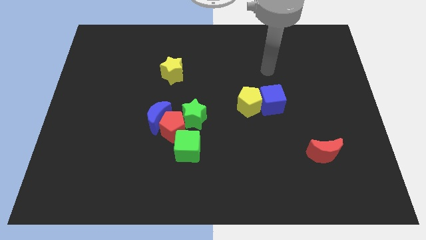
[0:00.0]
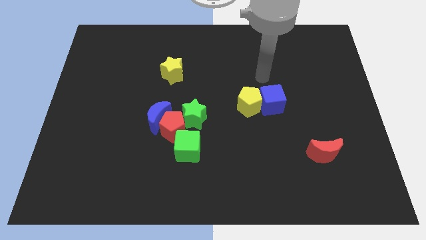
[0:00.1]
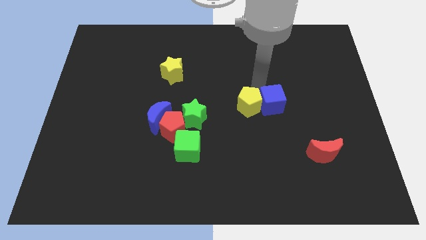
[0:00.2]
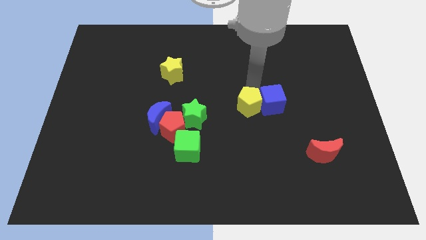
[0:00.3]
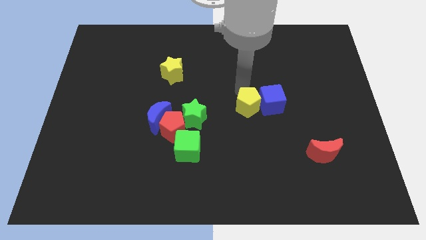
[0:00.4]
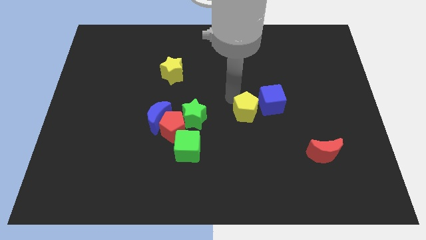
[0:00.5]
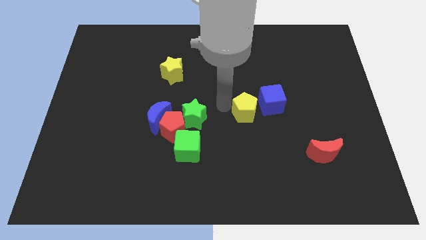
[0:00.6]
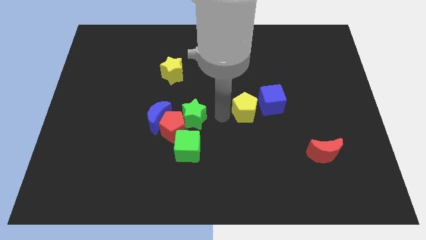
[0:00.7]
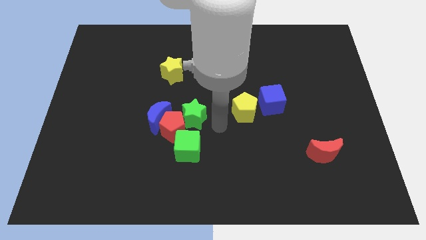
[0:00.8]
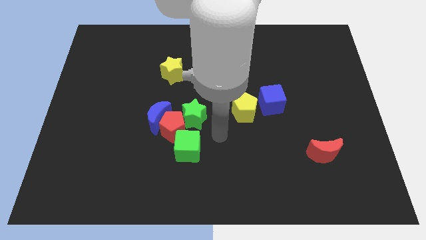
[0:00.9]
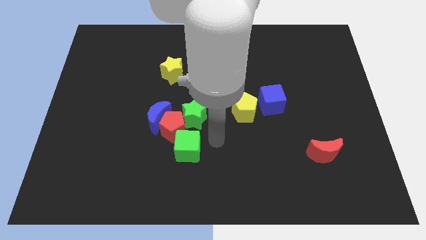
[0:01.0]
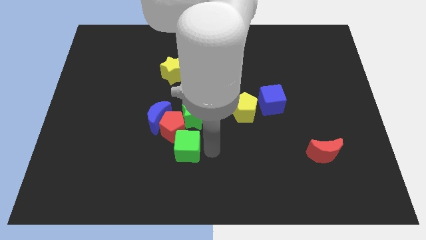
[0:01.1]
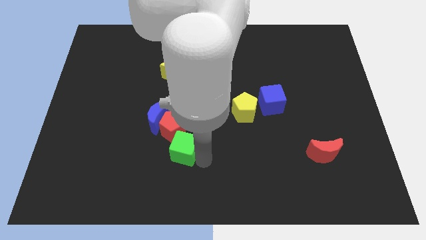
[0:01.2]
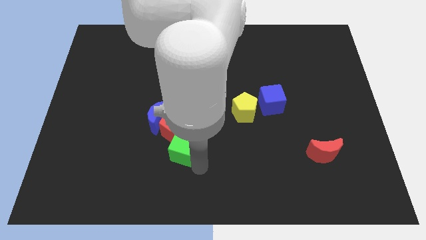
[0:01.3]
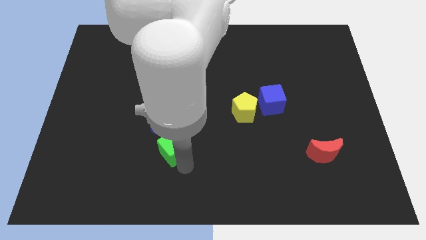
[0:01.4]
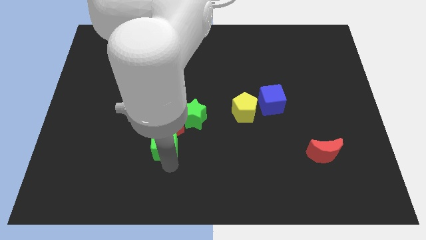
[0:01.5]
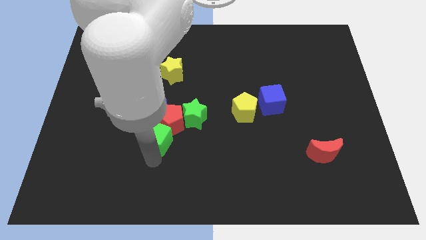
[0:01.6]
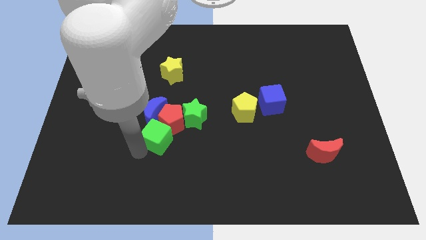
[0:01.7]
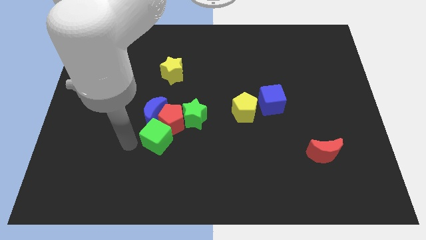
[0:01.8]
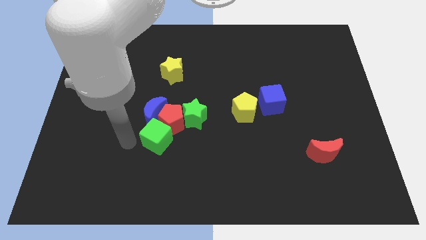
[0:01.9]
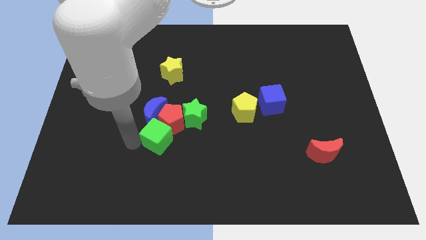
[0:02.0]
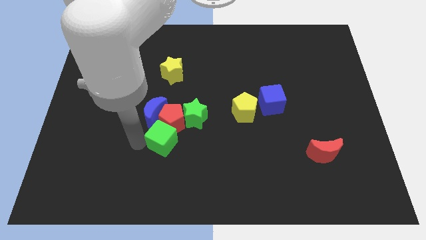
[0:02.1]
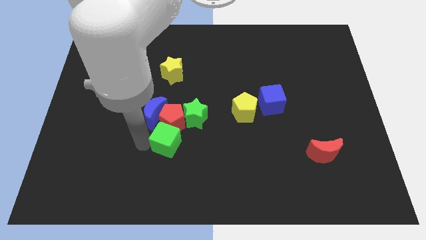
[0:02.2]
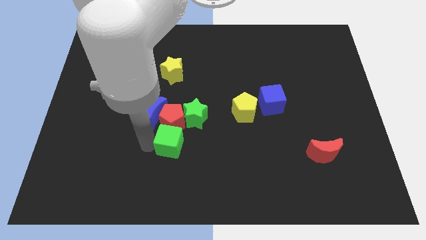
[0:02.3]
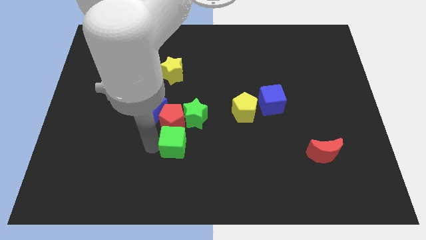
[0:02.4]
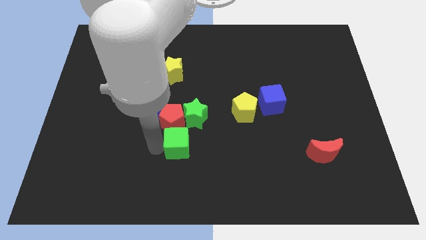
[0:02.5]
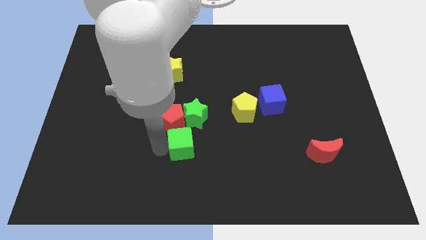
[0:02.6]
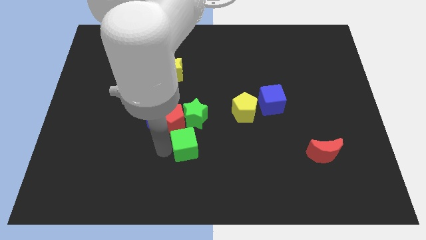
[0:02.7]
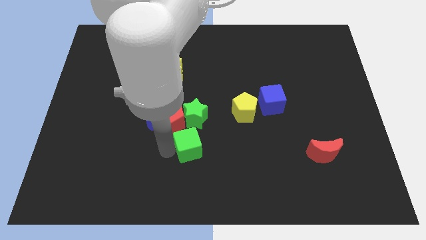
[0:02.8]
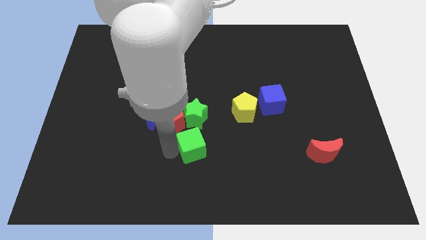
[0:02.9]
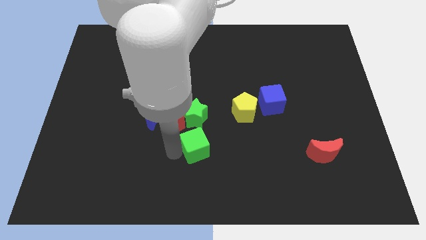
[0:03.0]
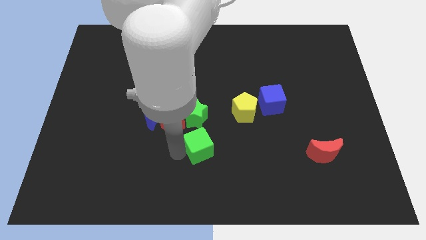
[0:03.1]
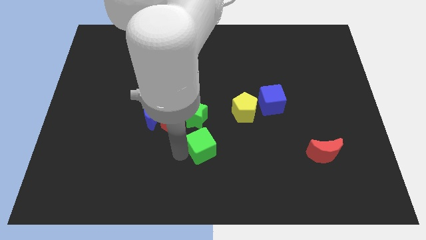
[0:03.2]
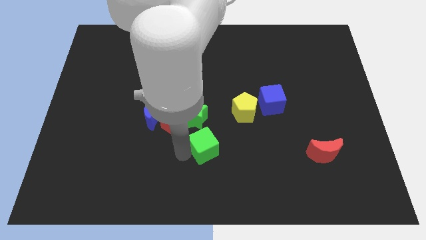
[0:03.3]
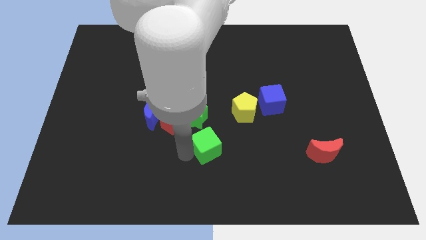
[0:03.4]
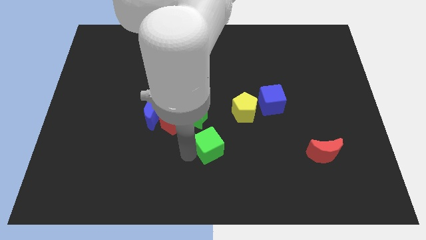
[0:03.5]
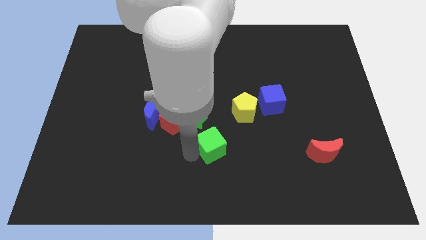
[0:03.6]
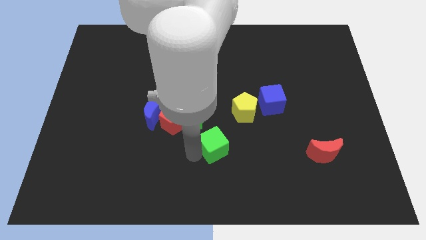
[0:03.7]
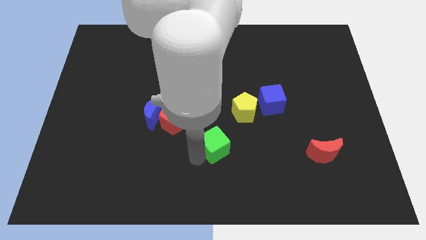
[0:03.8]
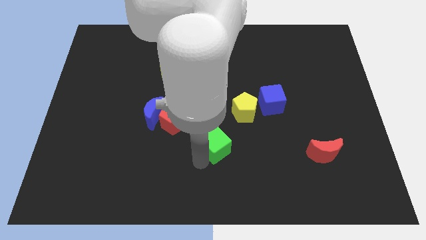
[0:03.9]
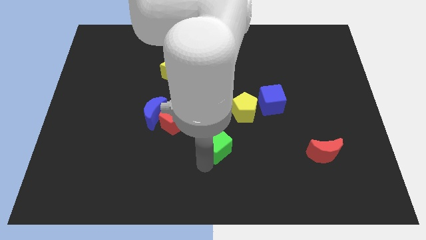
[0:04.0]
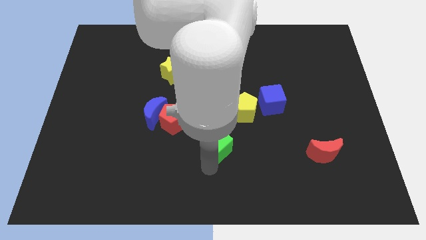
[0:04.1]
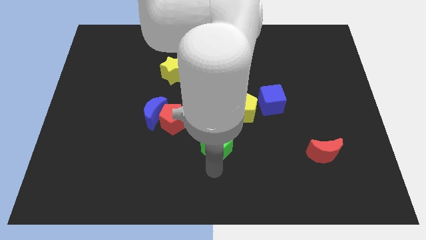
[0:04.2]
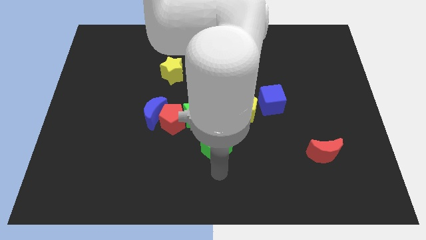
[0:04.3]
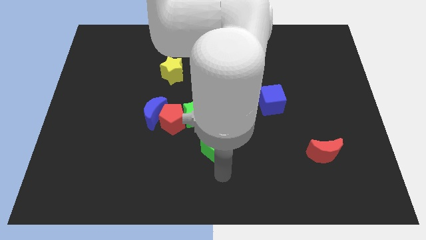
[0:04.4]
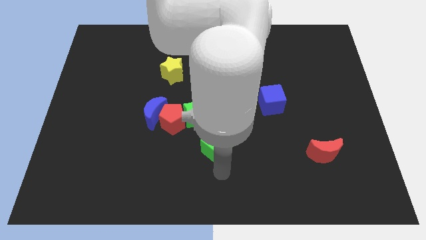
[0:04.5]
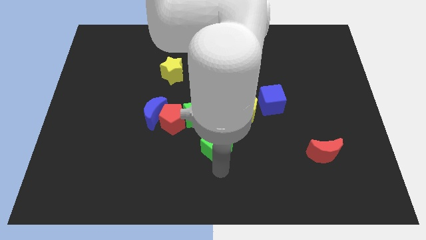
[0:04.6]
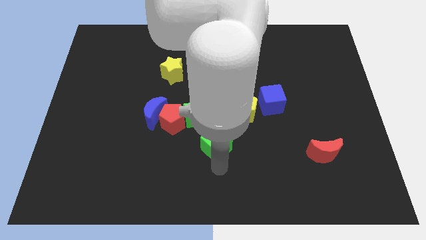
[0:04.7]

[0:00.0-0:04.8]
slide the green cube to the middle of the board

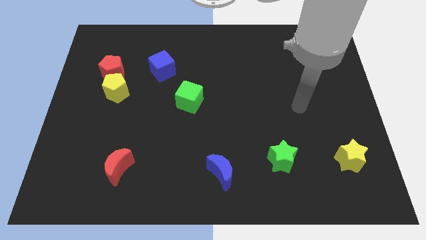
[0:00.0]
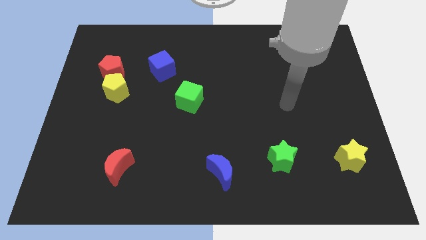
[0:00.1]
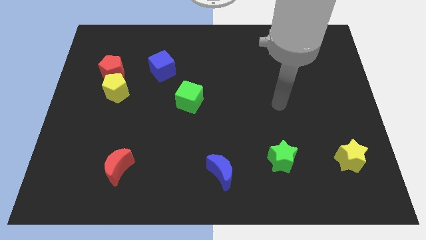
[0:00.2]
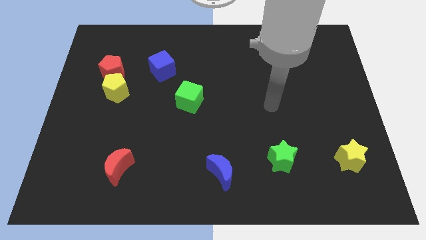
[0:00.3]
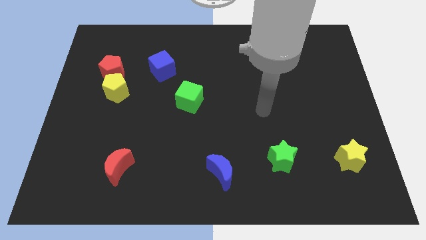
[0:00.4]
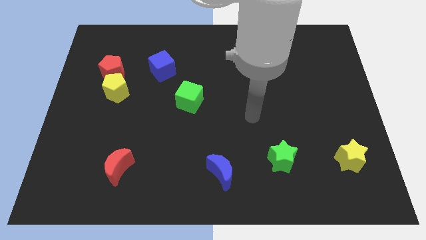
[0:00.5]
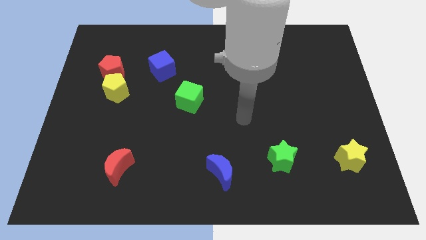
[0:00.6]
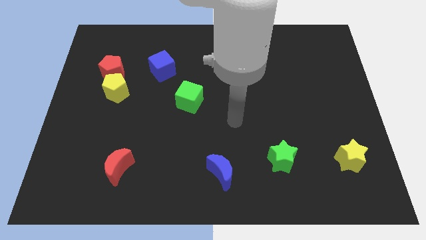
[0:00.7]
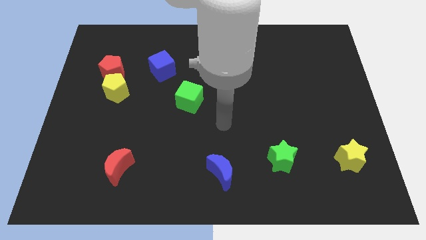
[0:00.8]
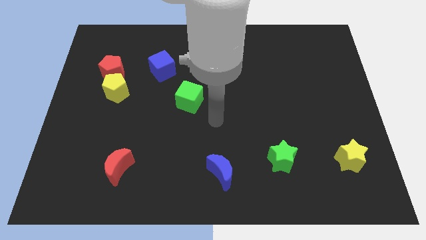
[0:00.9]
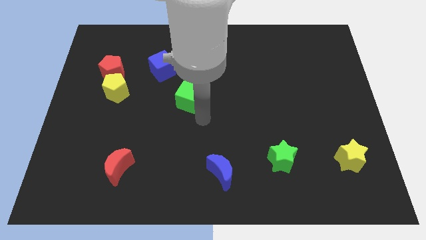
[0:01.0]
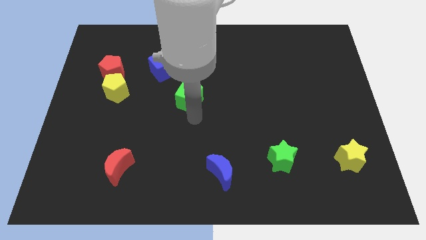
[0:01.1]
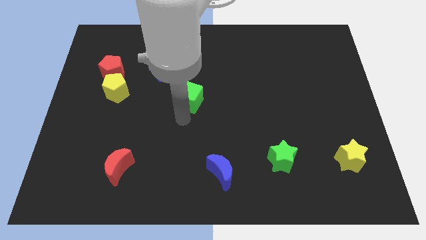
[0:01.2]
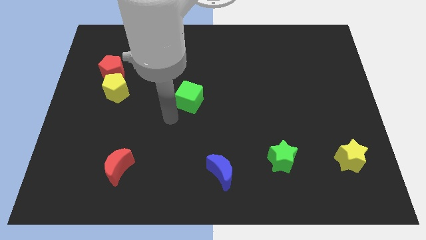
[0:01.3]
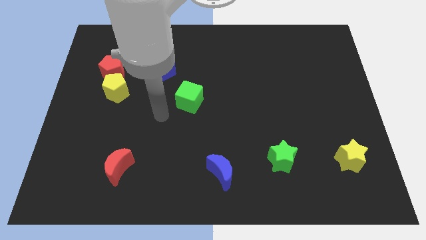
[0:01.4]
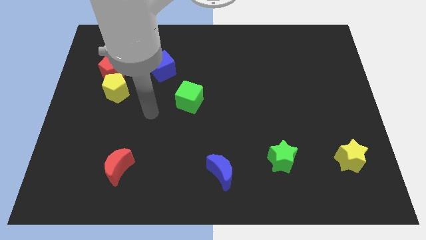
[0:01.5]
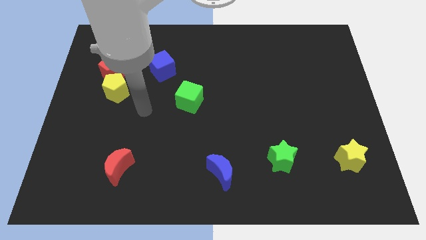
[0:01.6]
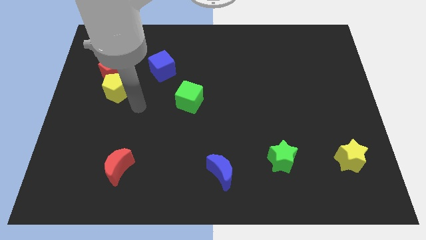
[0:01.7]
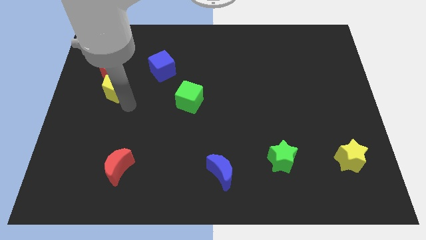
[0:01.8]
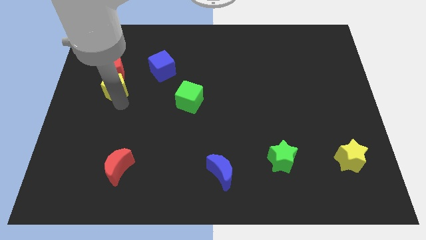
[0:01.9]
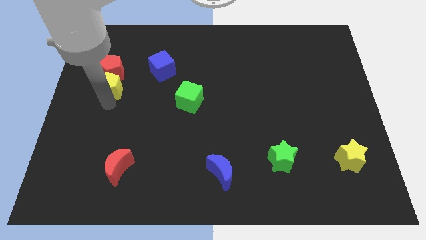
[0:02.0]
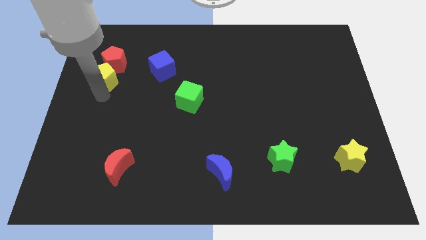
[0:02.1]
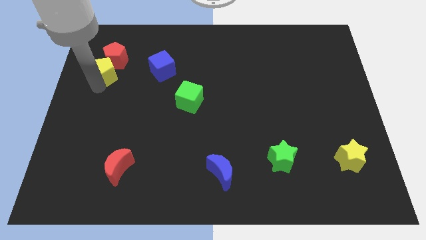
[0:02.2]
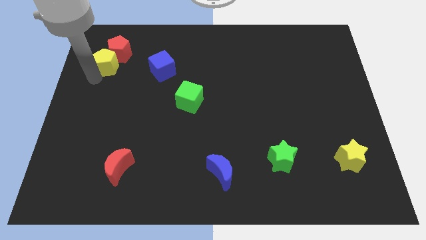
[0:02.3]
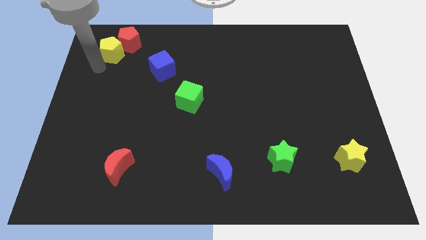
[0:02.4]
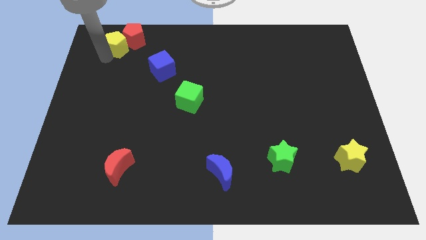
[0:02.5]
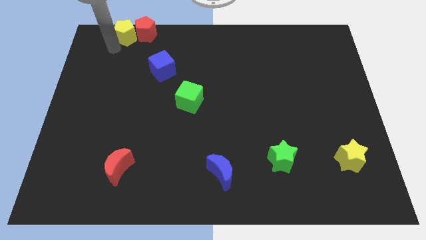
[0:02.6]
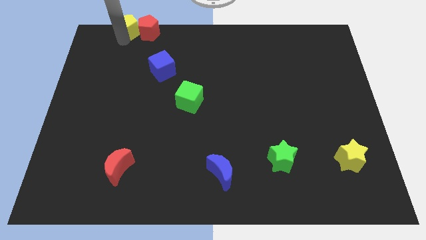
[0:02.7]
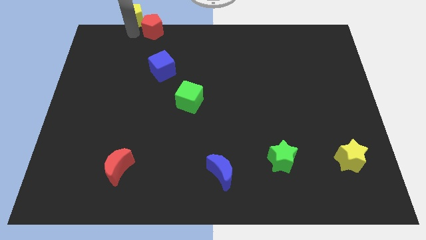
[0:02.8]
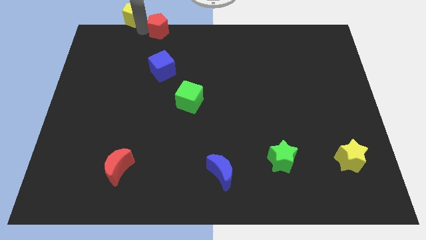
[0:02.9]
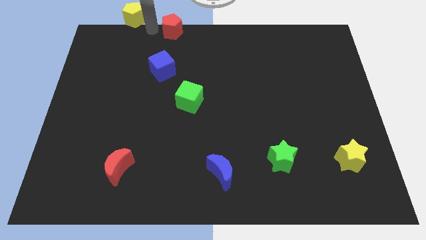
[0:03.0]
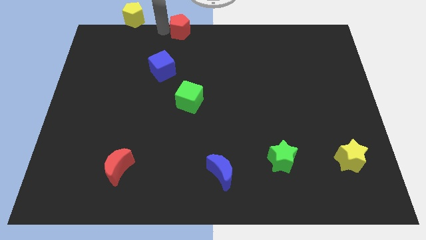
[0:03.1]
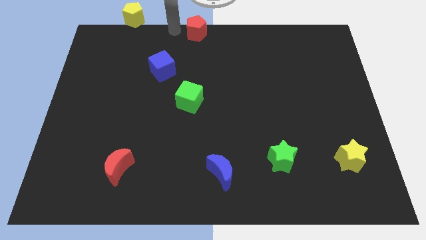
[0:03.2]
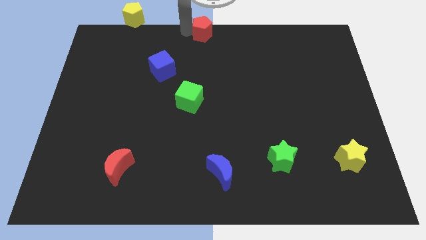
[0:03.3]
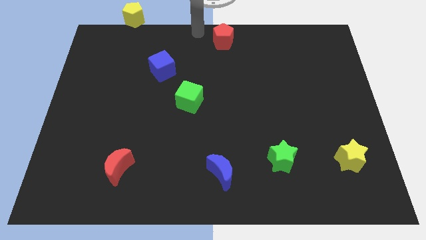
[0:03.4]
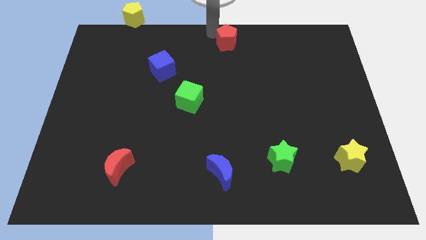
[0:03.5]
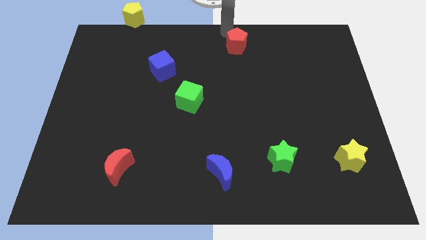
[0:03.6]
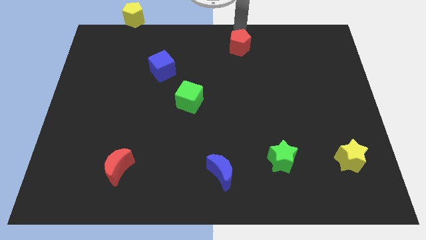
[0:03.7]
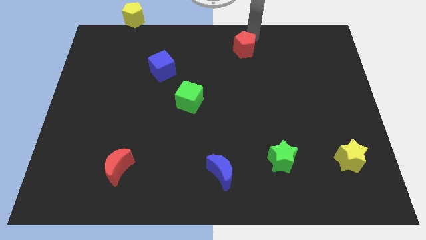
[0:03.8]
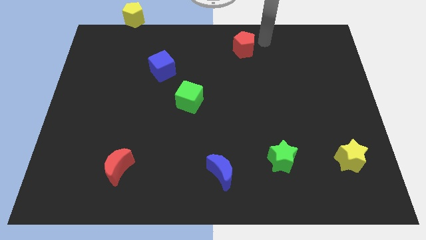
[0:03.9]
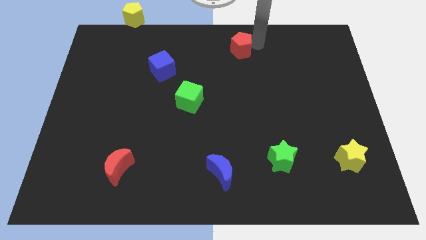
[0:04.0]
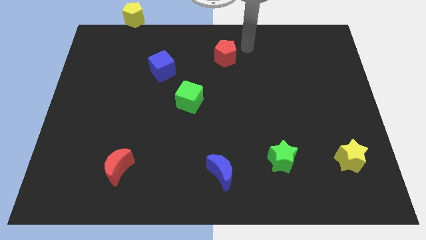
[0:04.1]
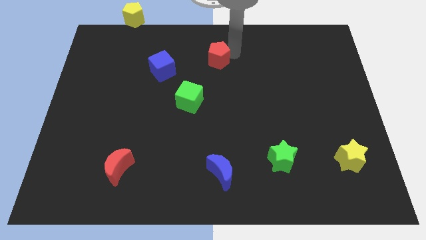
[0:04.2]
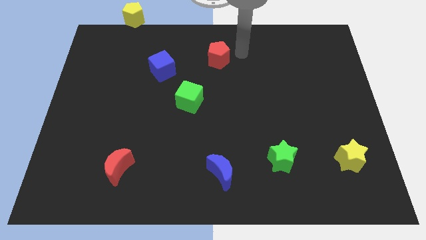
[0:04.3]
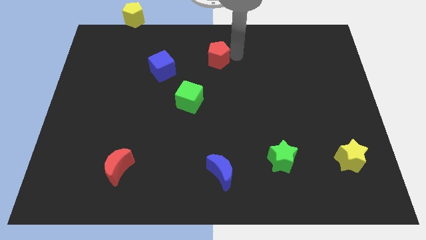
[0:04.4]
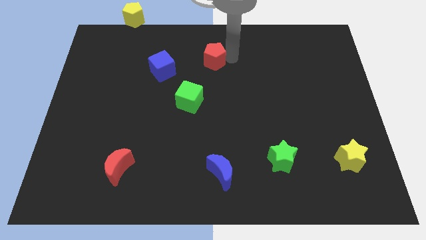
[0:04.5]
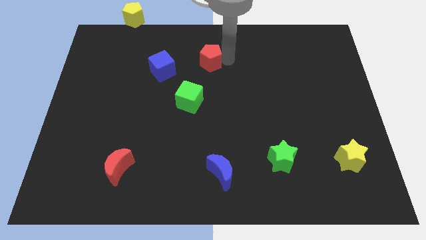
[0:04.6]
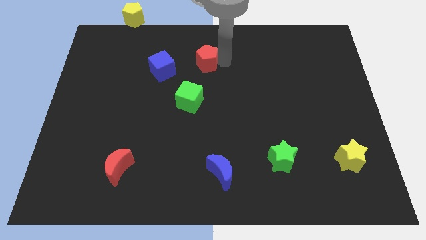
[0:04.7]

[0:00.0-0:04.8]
move the red pentagon to the middle
